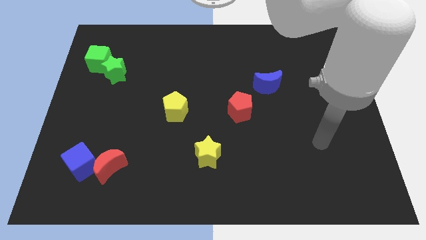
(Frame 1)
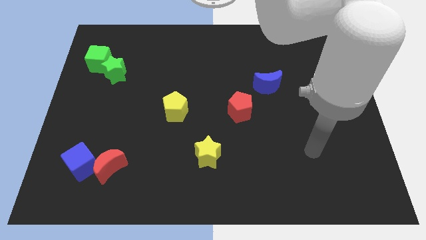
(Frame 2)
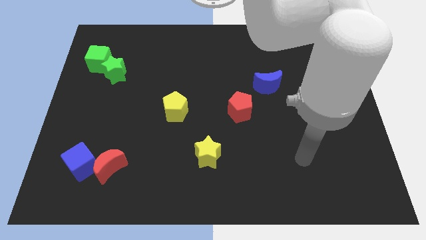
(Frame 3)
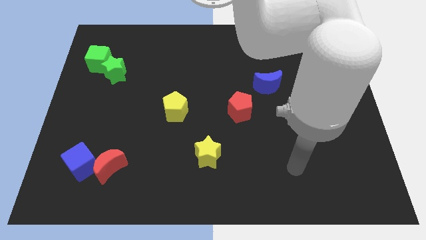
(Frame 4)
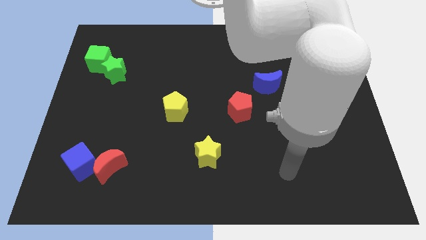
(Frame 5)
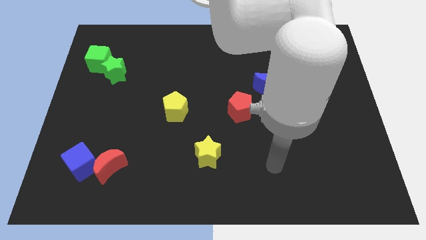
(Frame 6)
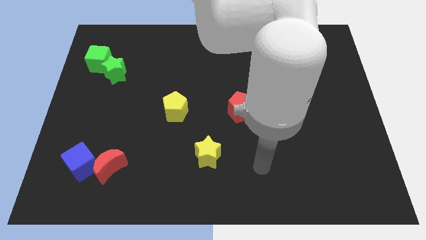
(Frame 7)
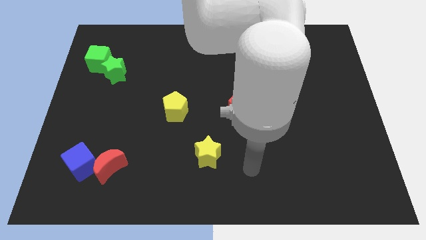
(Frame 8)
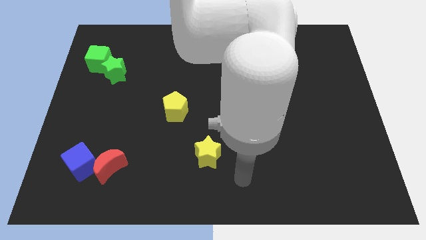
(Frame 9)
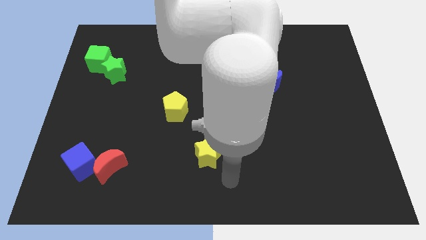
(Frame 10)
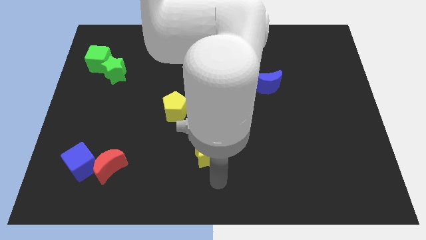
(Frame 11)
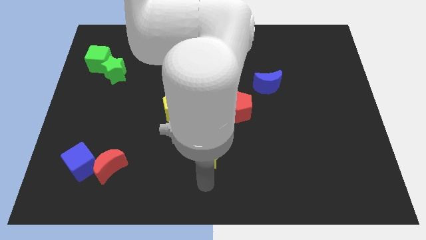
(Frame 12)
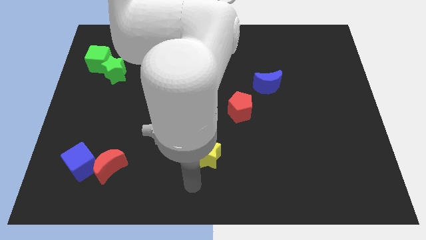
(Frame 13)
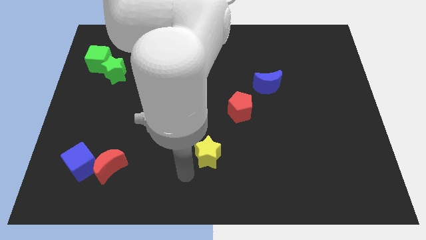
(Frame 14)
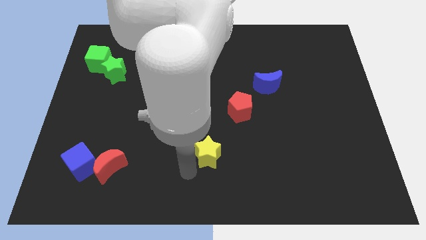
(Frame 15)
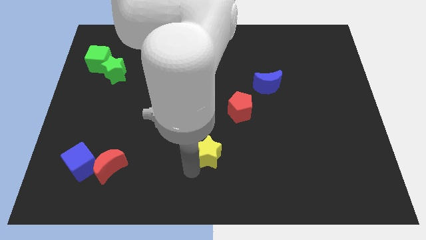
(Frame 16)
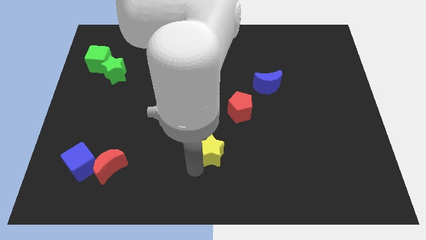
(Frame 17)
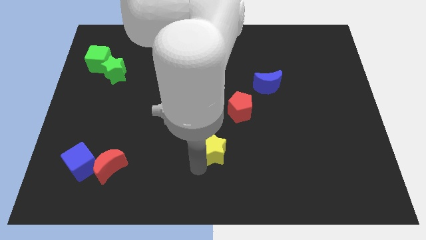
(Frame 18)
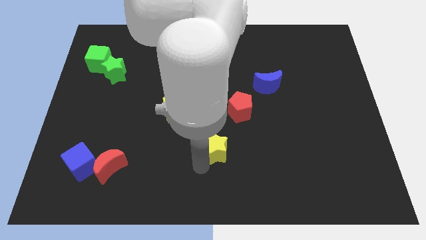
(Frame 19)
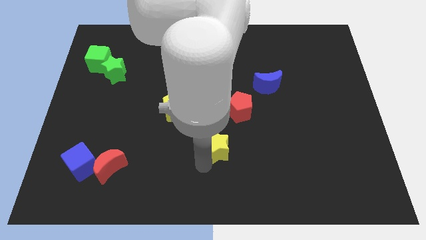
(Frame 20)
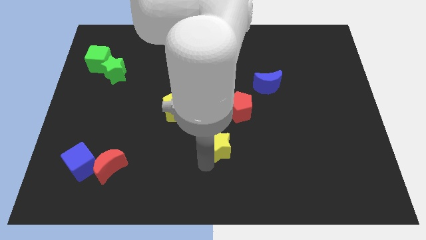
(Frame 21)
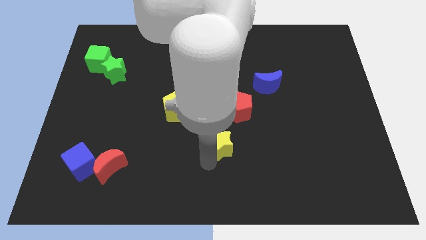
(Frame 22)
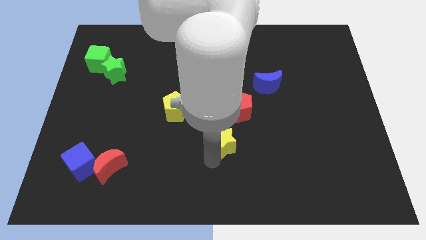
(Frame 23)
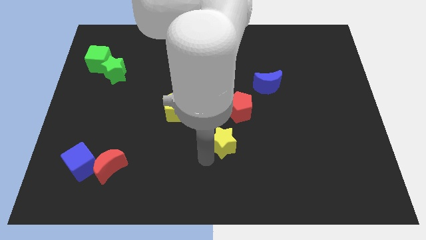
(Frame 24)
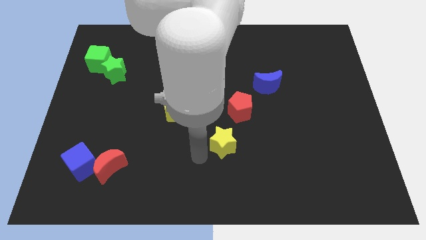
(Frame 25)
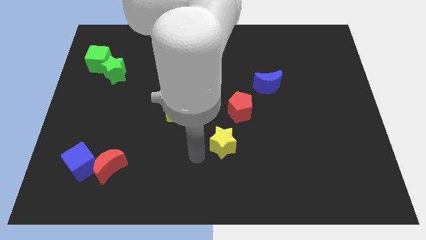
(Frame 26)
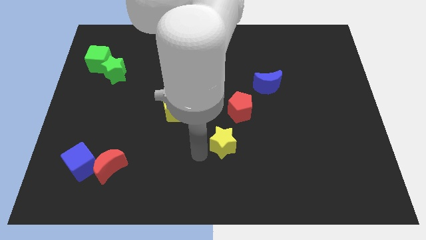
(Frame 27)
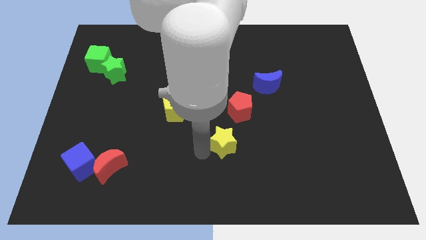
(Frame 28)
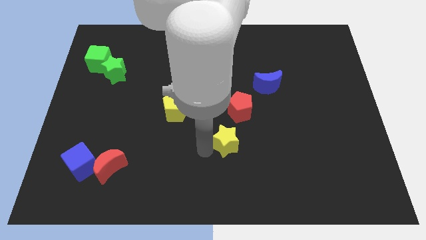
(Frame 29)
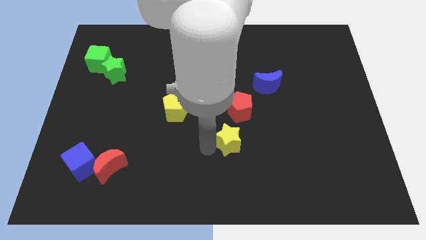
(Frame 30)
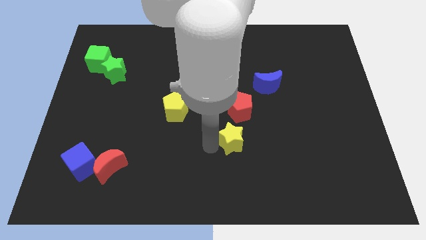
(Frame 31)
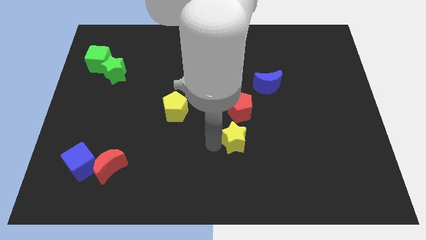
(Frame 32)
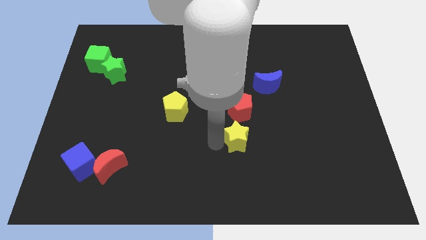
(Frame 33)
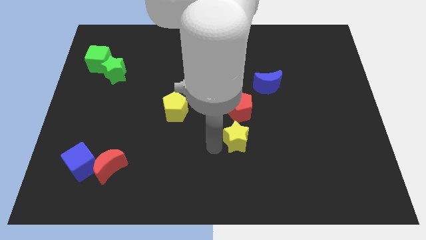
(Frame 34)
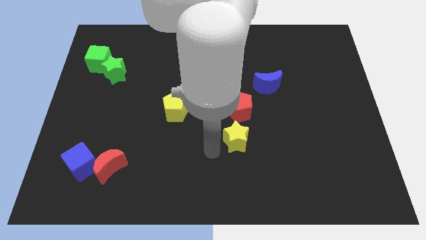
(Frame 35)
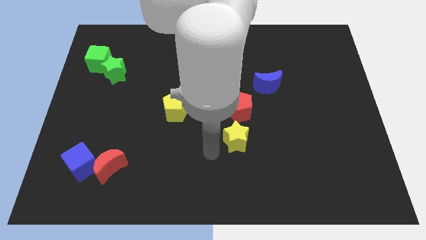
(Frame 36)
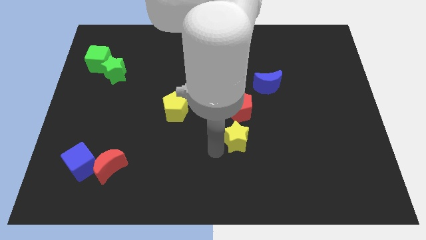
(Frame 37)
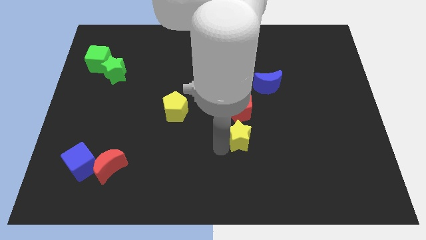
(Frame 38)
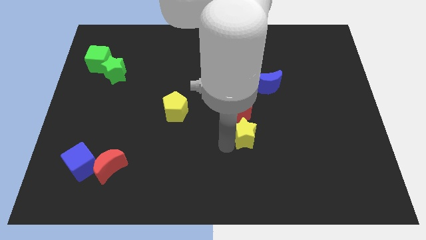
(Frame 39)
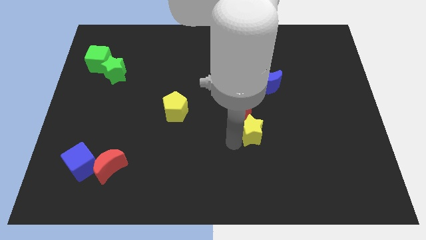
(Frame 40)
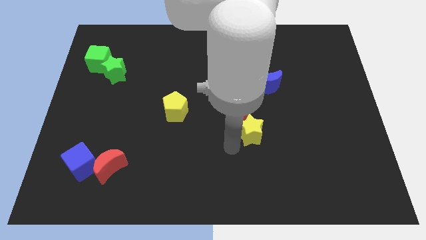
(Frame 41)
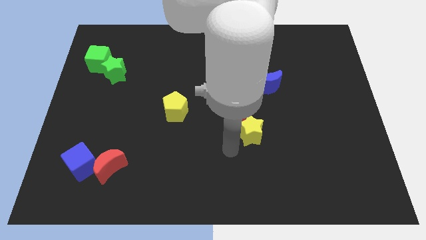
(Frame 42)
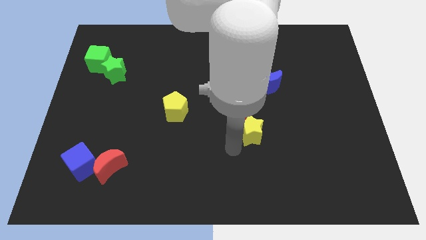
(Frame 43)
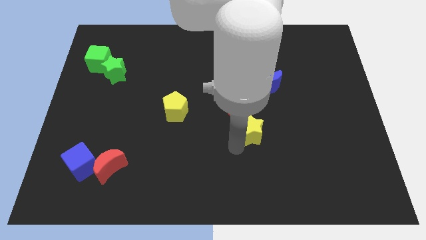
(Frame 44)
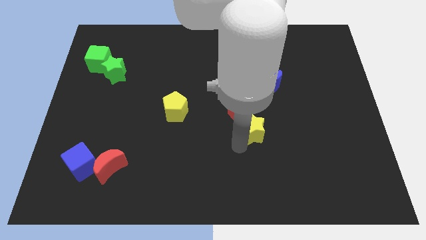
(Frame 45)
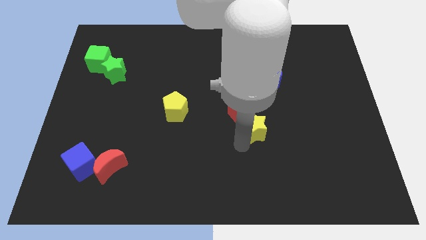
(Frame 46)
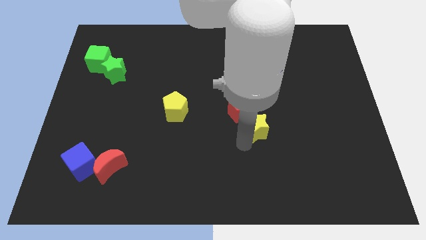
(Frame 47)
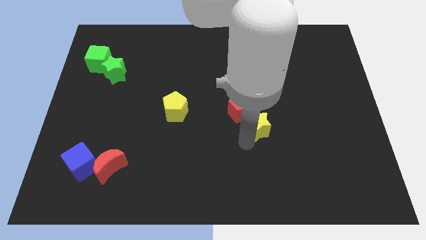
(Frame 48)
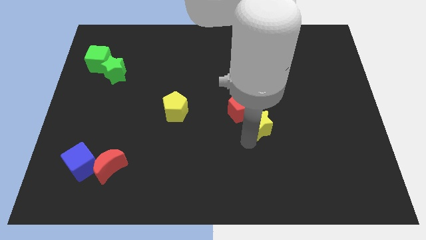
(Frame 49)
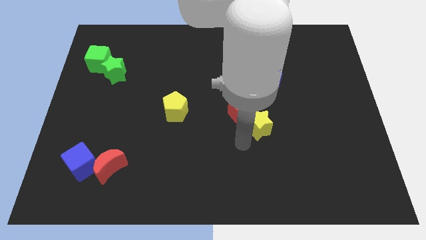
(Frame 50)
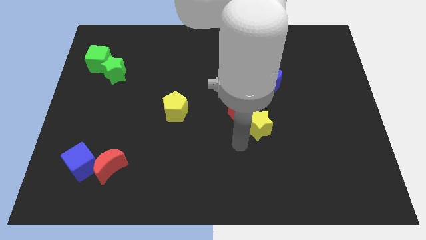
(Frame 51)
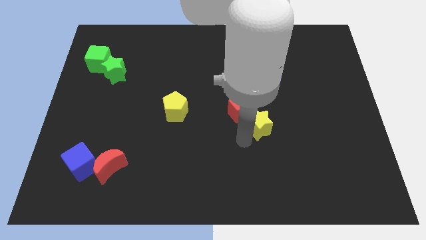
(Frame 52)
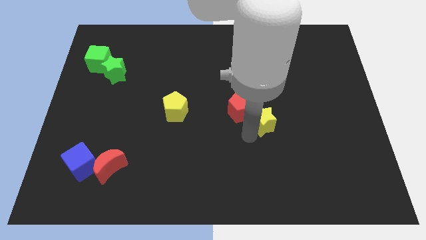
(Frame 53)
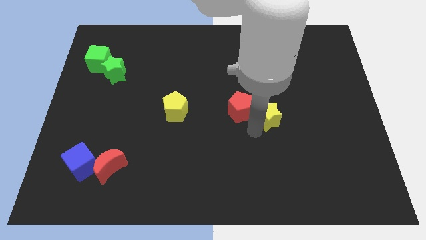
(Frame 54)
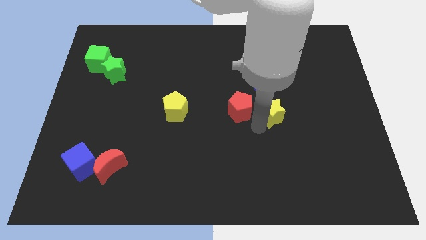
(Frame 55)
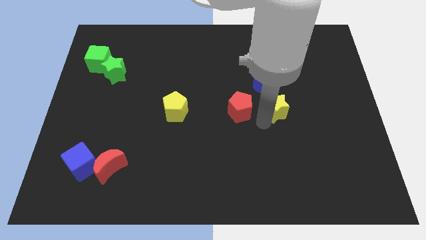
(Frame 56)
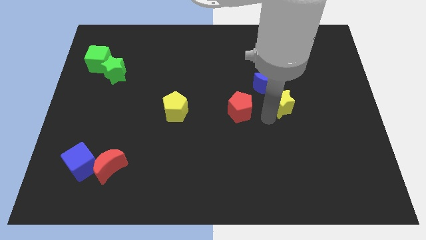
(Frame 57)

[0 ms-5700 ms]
push the yellow star diagonally up and right

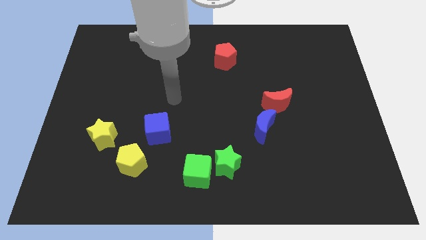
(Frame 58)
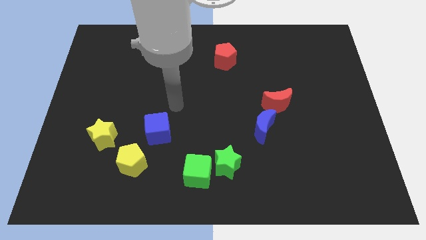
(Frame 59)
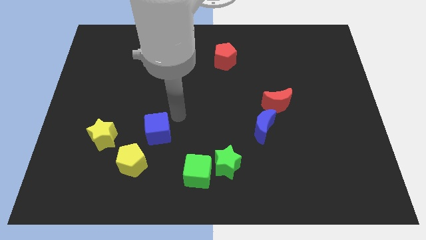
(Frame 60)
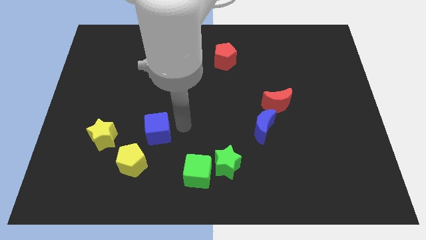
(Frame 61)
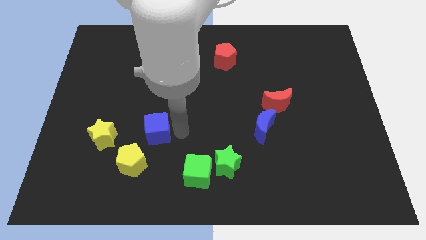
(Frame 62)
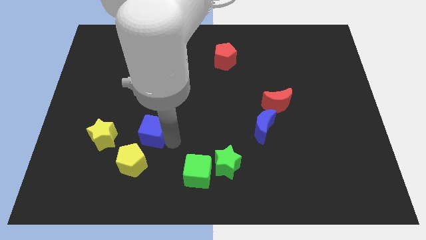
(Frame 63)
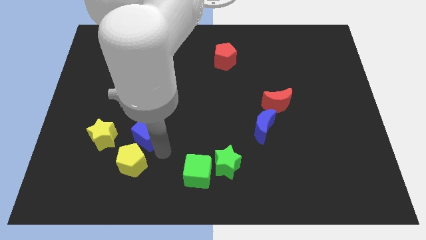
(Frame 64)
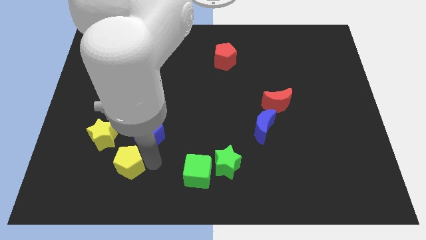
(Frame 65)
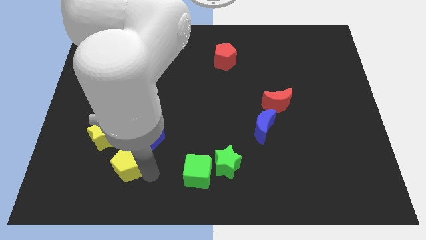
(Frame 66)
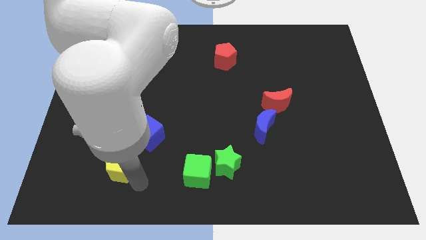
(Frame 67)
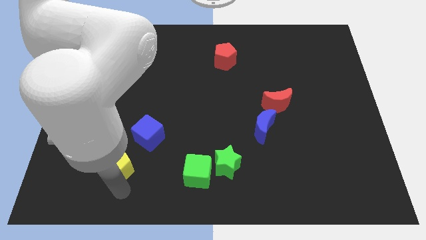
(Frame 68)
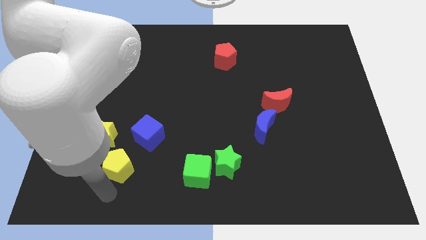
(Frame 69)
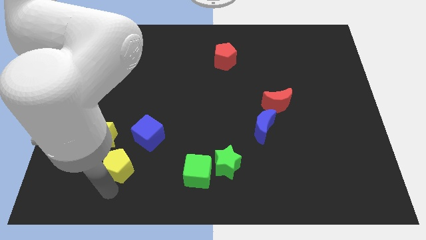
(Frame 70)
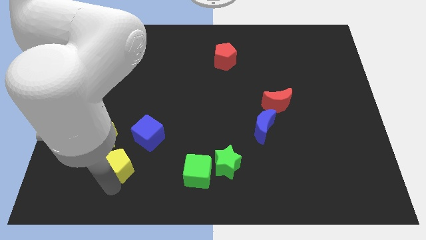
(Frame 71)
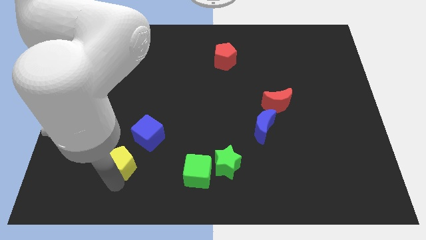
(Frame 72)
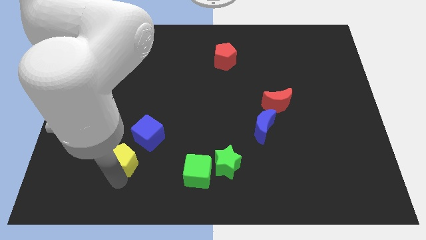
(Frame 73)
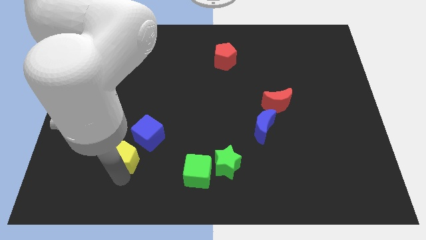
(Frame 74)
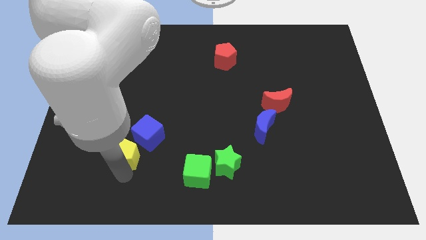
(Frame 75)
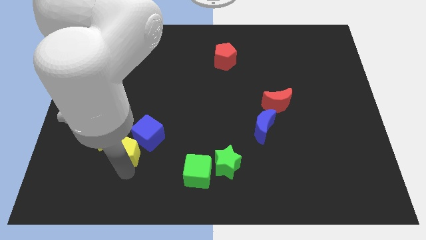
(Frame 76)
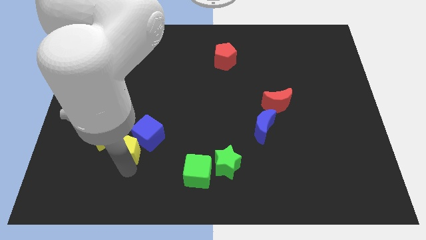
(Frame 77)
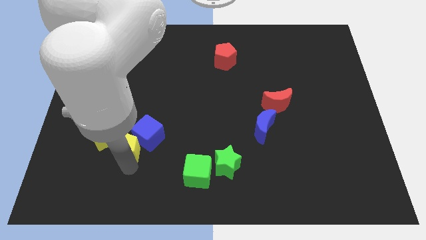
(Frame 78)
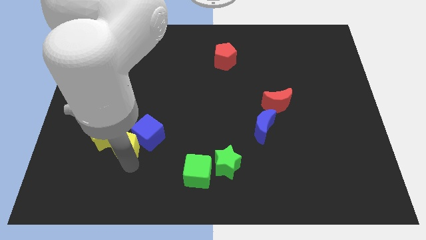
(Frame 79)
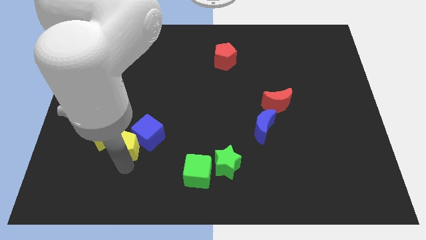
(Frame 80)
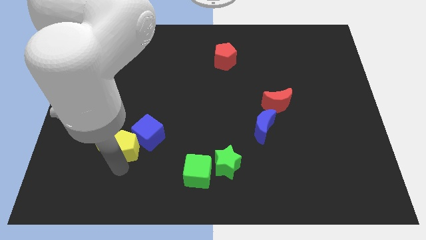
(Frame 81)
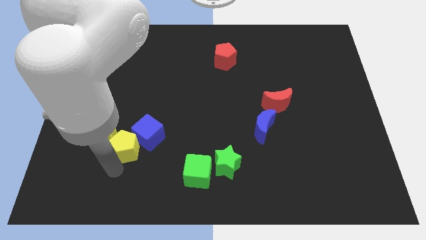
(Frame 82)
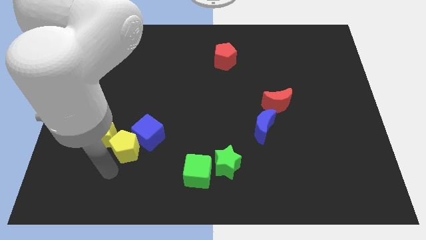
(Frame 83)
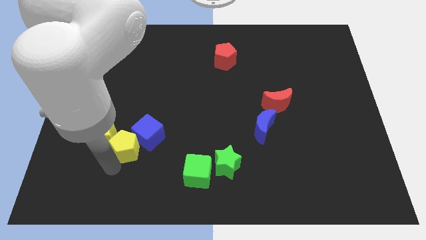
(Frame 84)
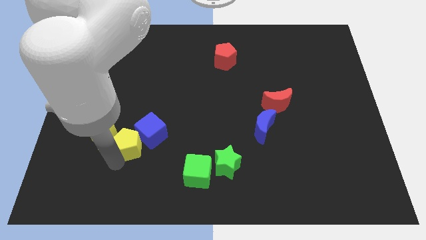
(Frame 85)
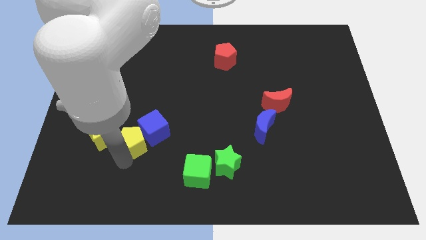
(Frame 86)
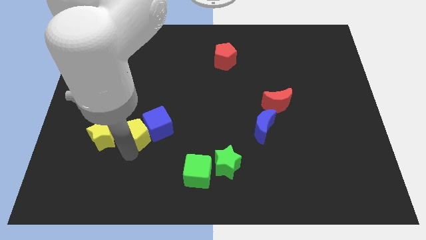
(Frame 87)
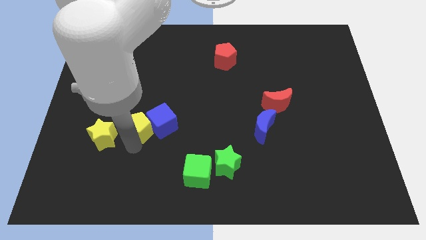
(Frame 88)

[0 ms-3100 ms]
push the yellow pentagon a little bit up
